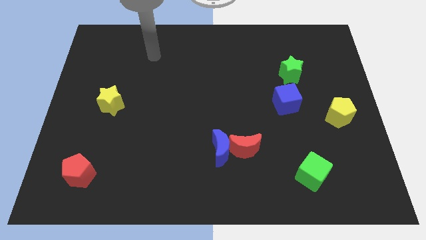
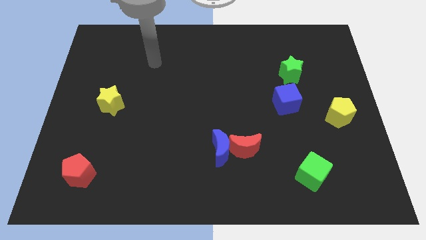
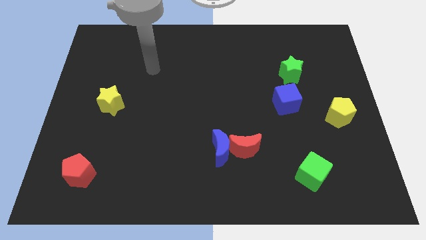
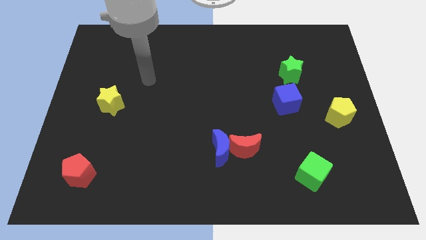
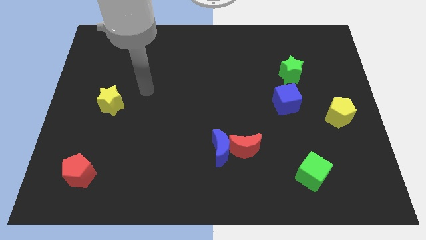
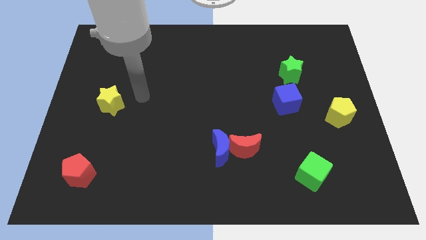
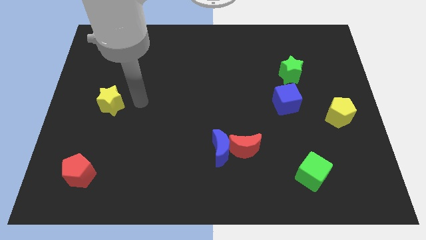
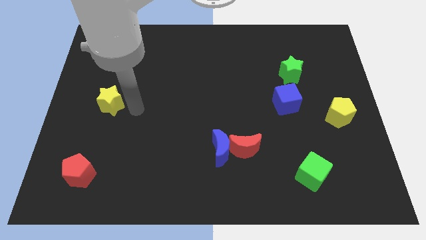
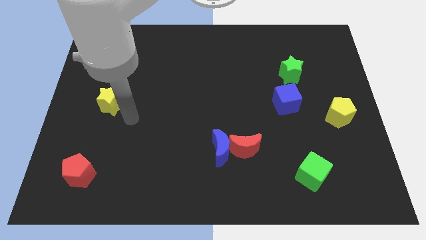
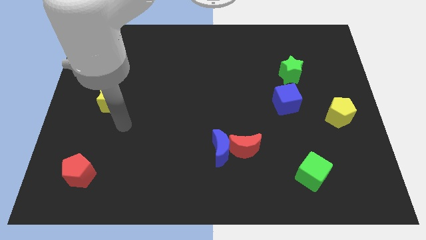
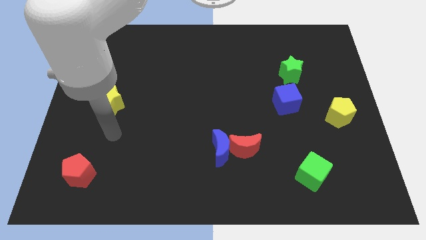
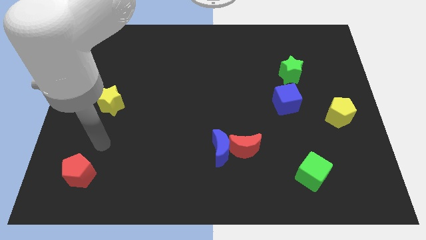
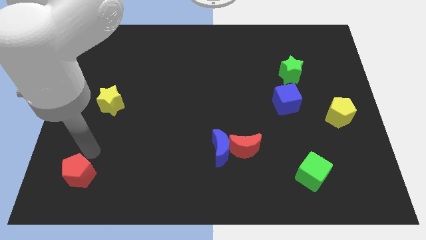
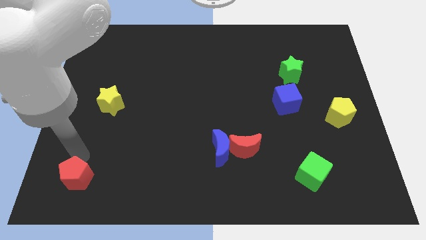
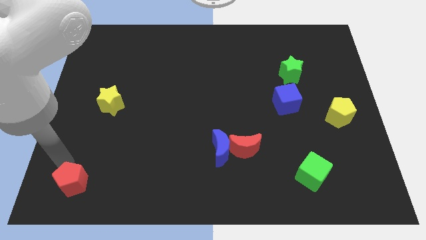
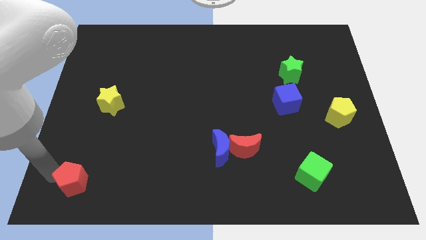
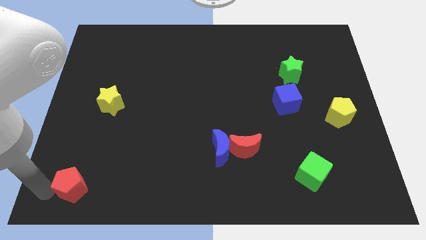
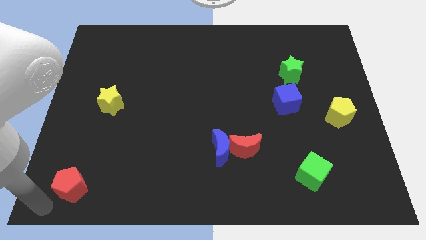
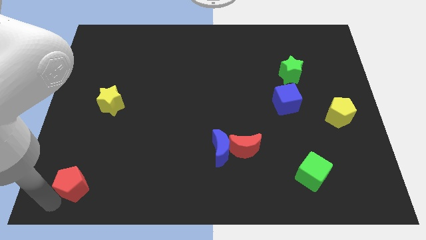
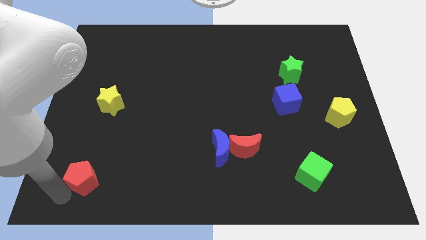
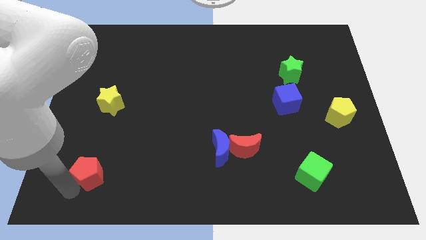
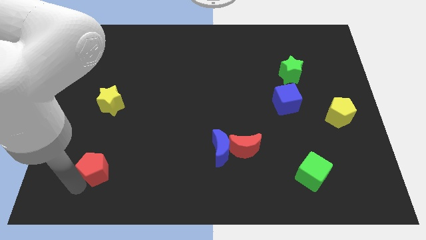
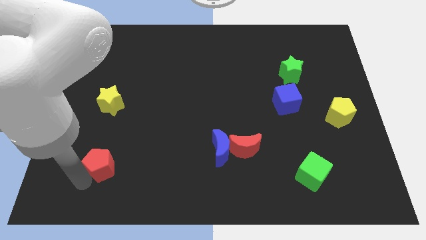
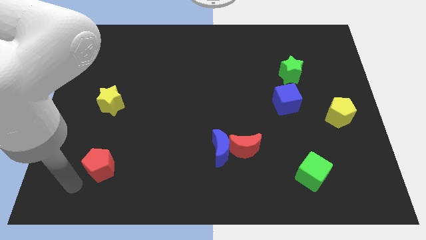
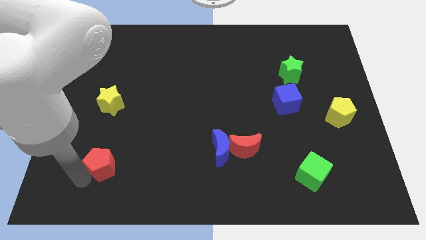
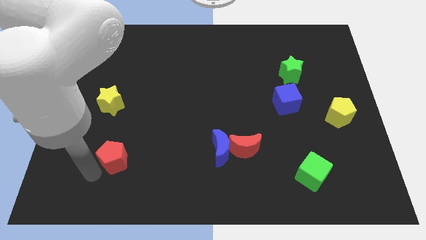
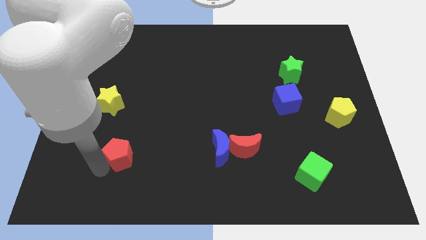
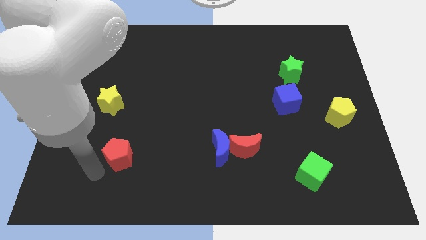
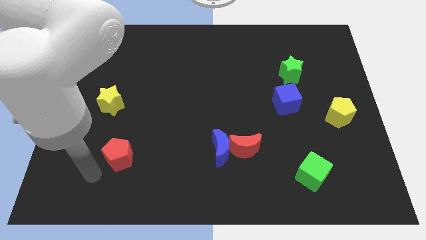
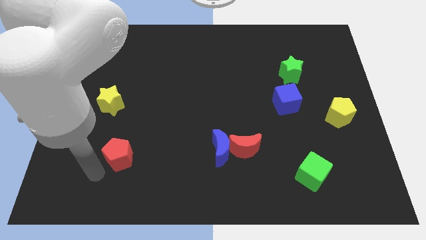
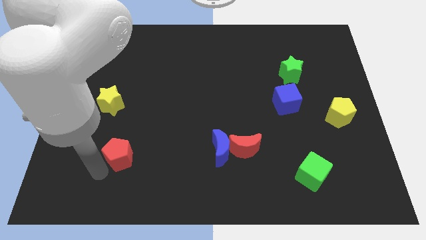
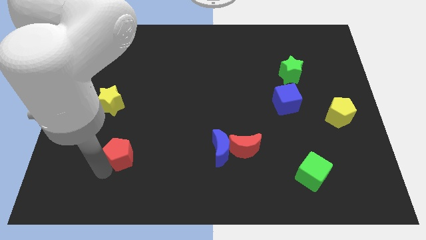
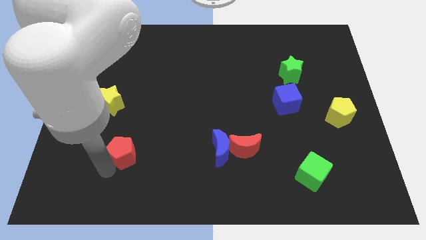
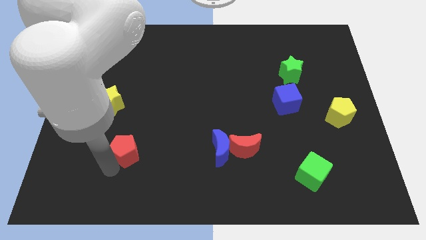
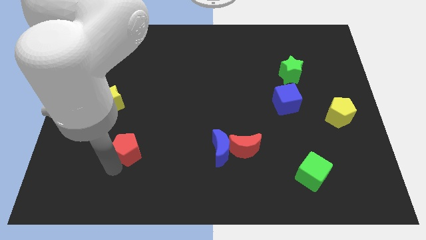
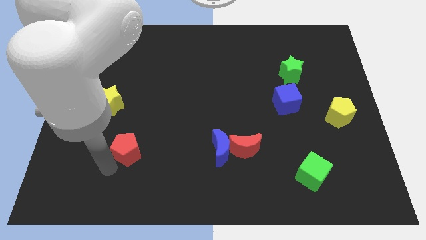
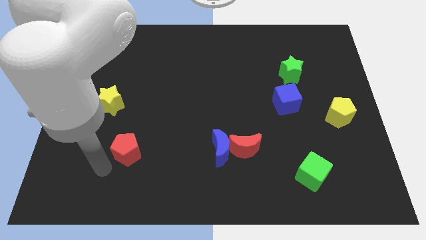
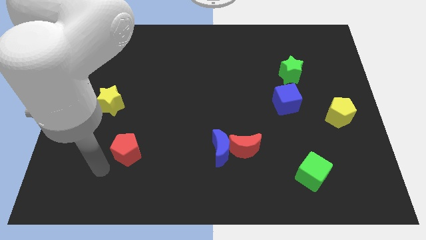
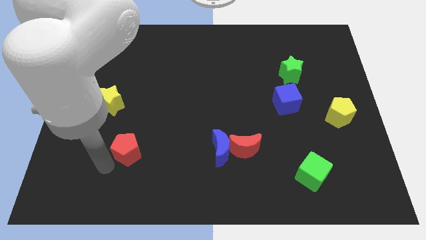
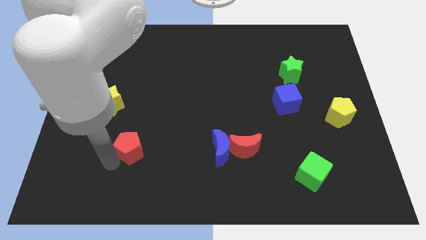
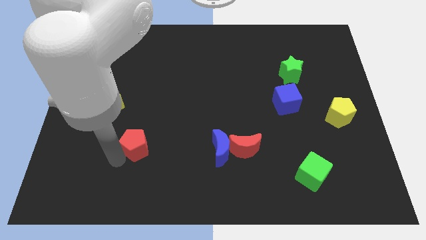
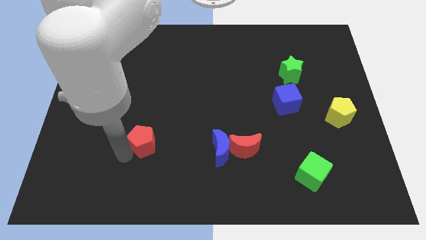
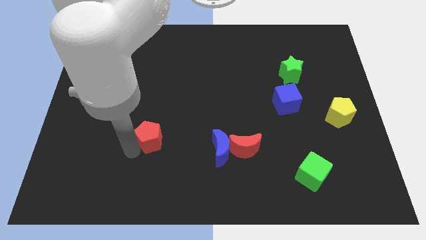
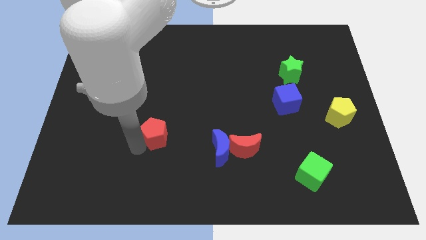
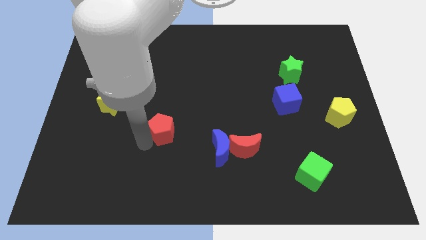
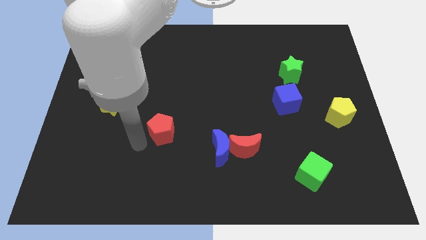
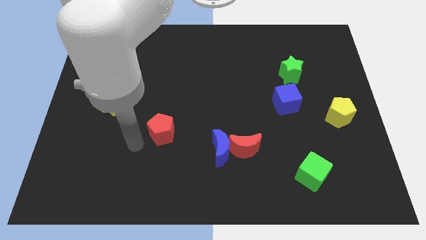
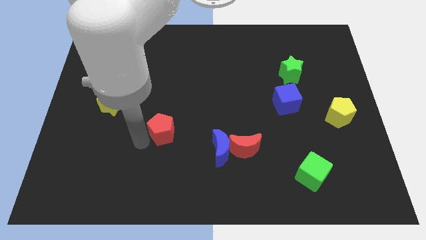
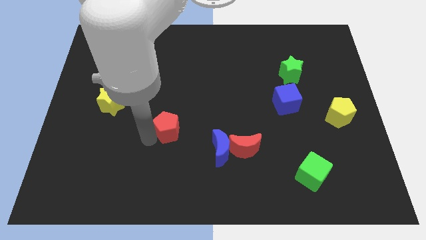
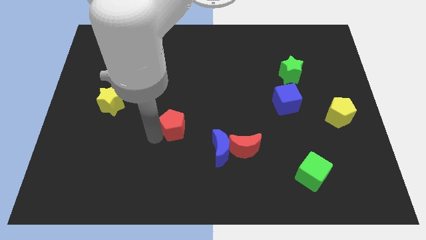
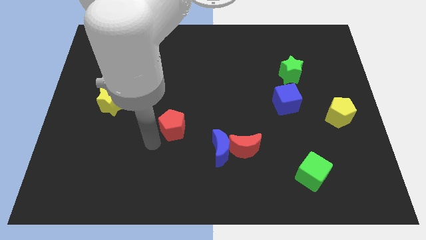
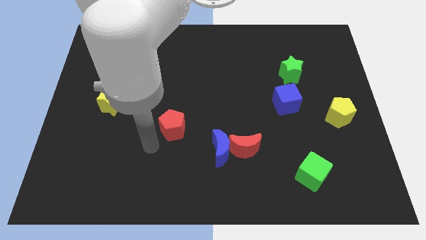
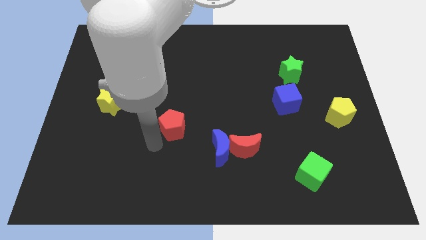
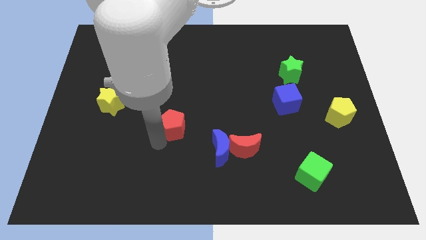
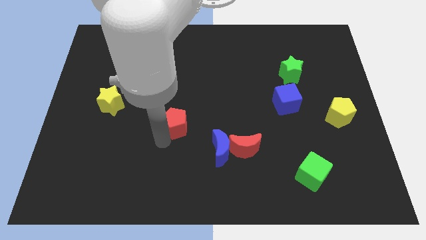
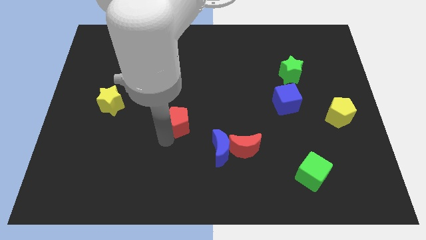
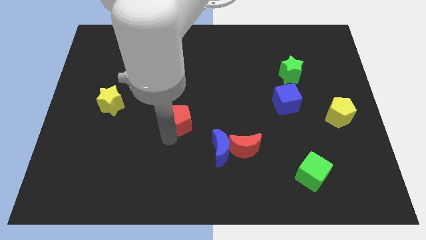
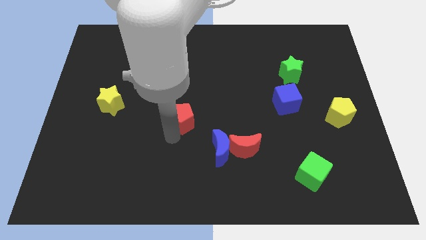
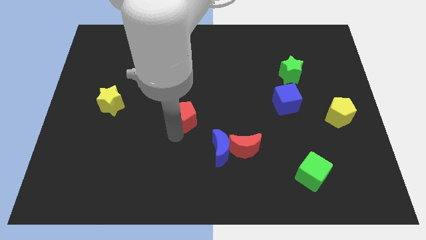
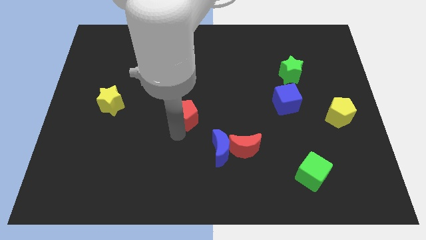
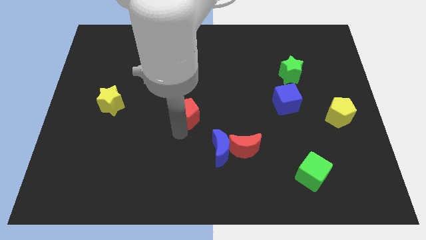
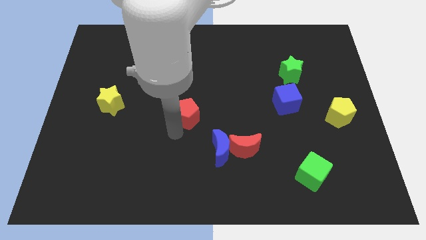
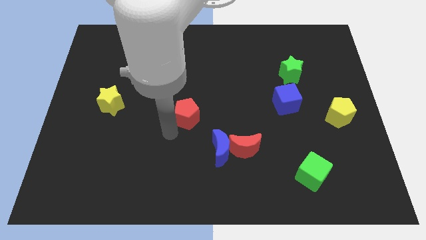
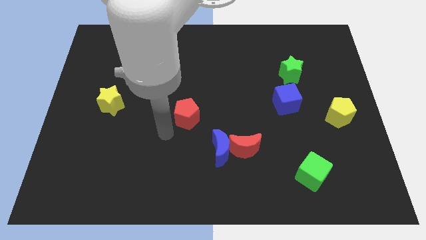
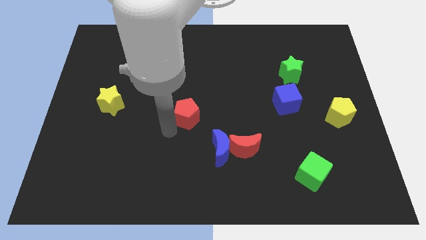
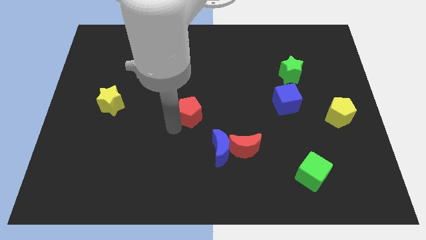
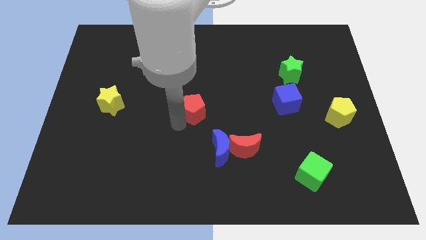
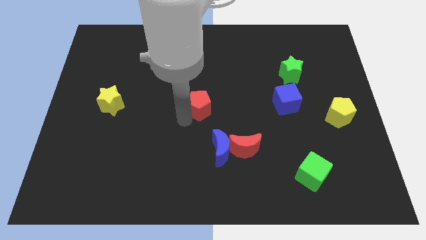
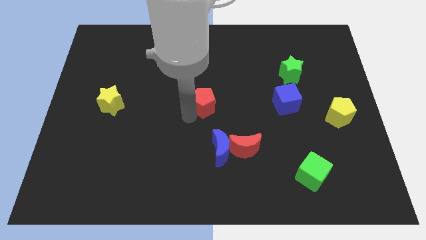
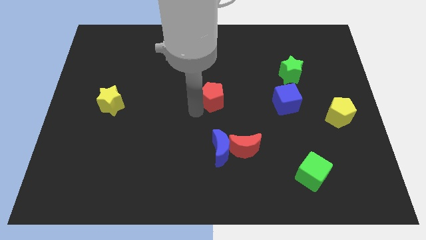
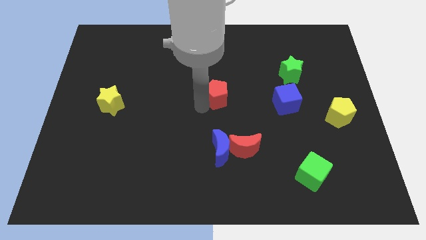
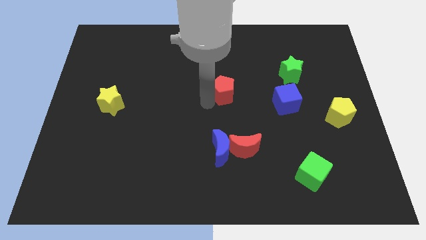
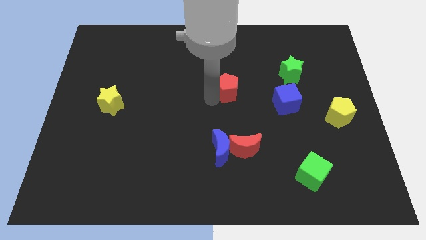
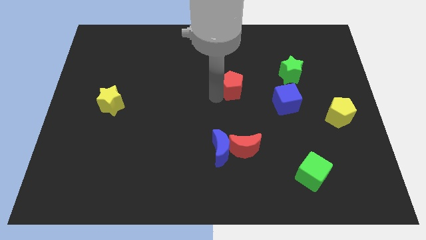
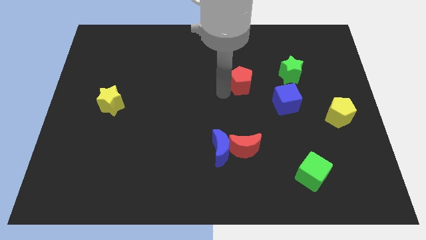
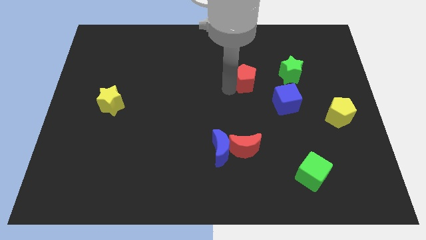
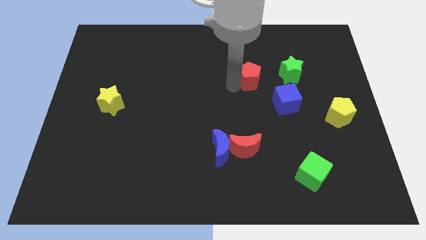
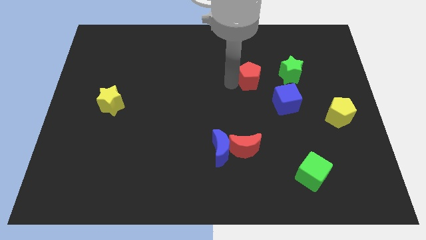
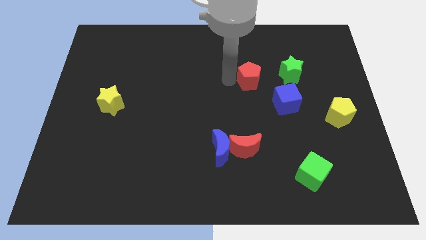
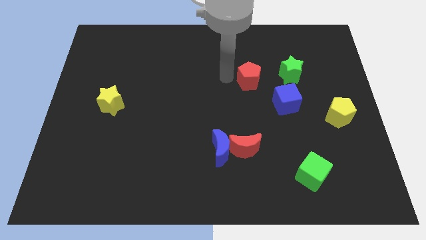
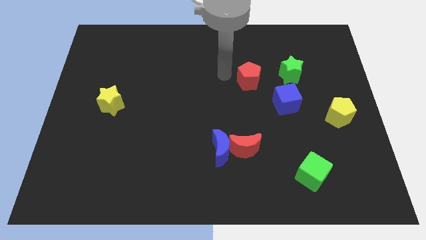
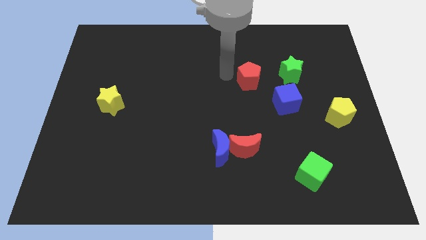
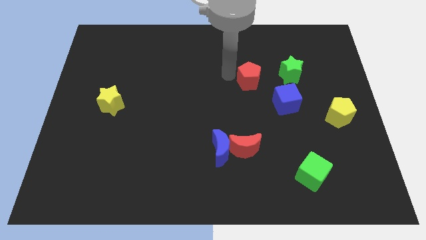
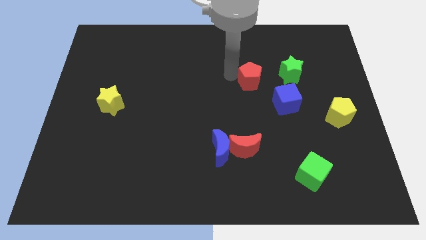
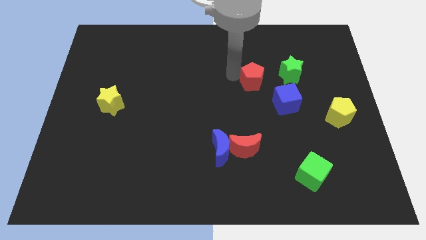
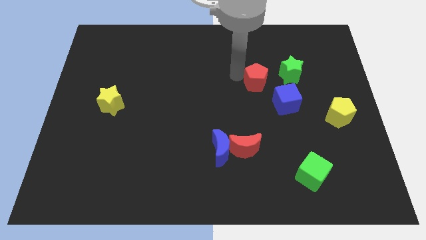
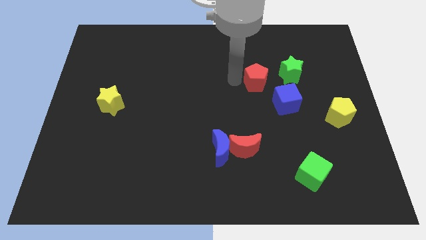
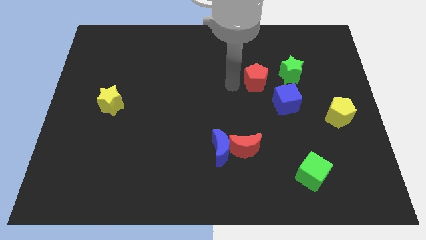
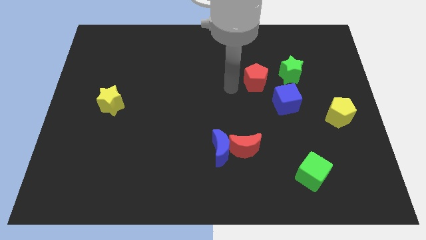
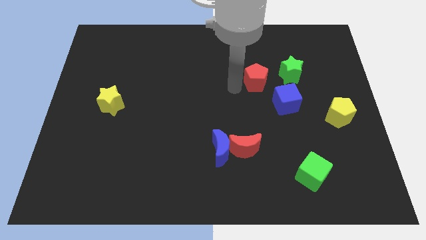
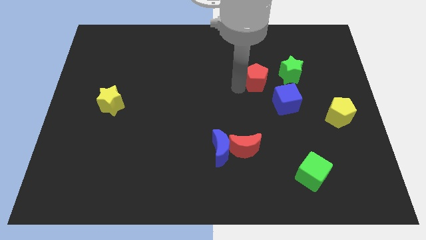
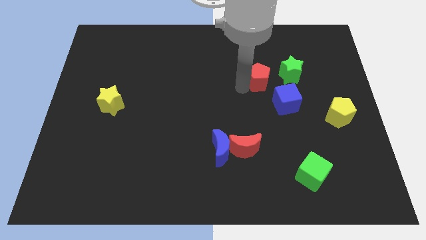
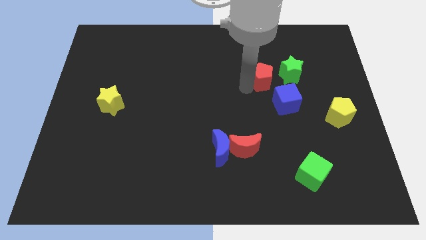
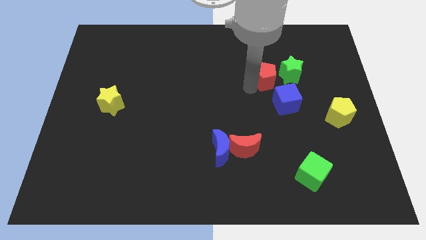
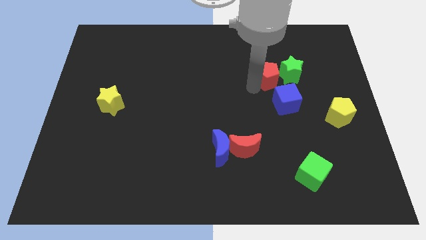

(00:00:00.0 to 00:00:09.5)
move the red pentagon next to the green star
